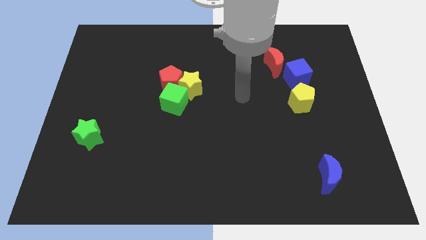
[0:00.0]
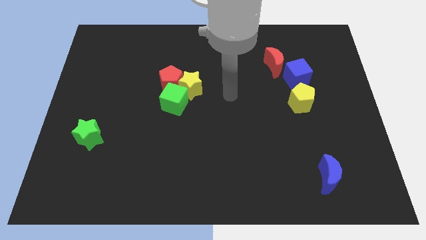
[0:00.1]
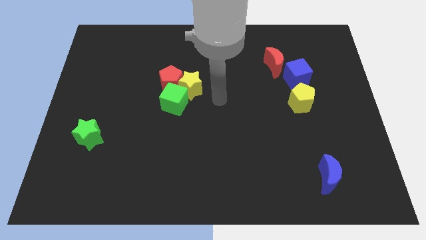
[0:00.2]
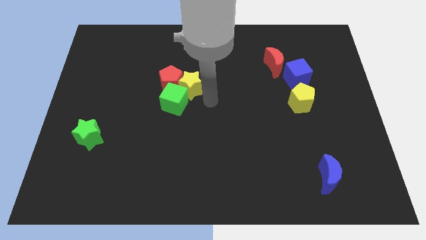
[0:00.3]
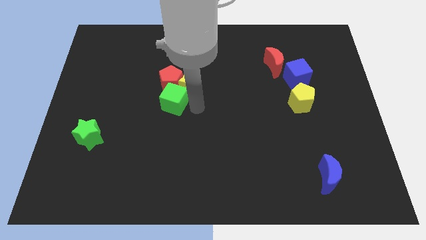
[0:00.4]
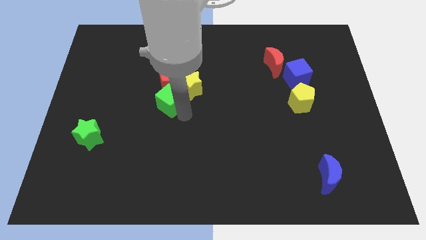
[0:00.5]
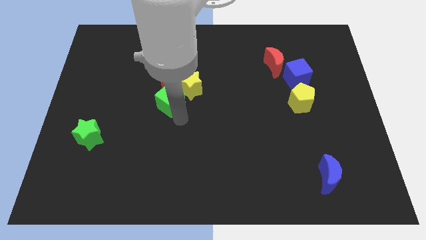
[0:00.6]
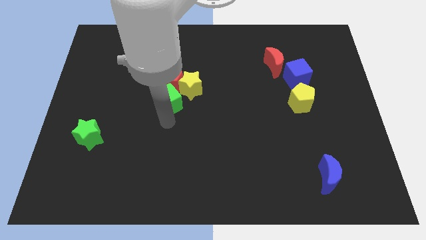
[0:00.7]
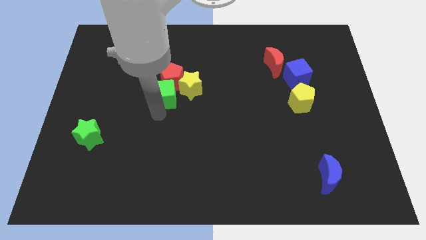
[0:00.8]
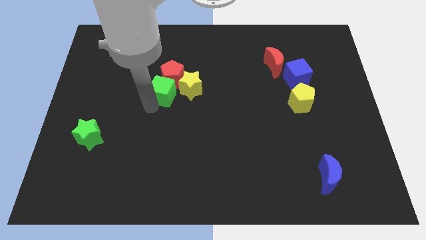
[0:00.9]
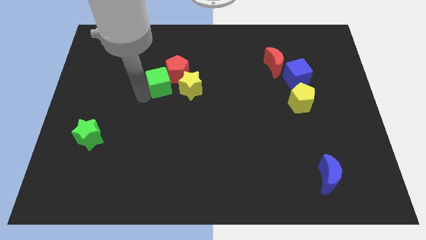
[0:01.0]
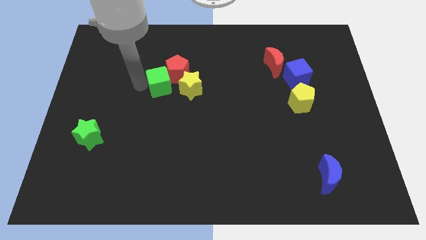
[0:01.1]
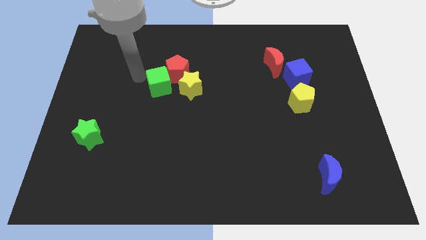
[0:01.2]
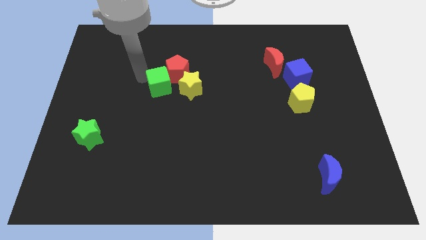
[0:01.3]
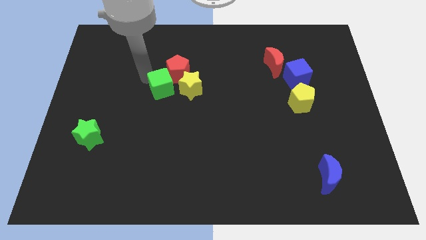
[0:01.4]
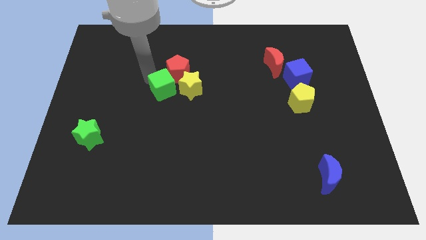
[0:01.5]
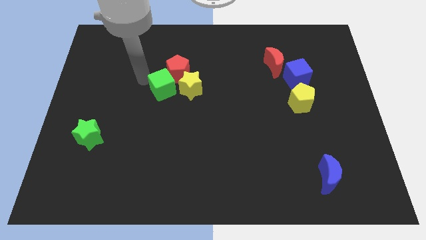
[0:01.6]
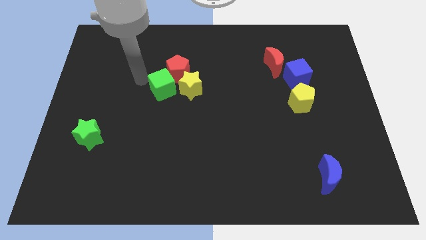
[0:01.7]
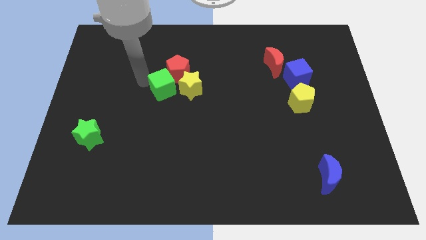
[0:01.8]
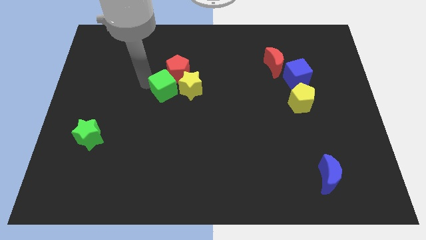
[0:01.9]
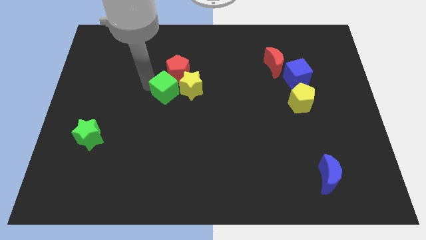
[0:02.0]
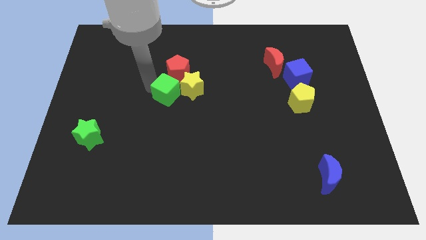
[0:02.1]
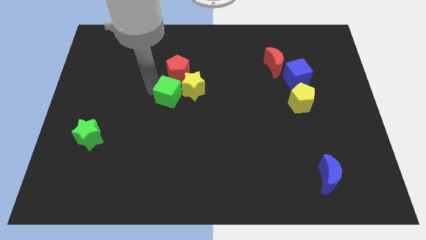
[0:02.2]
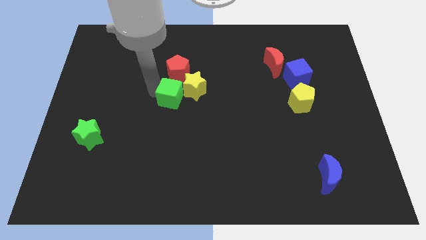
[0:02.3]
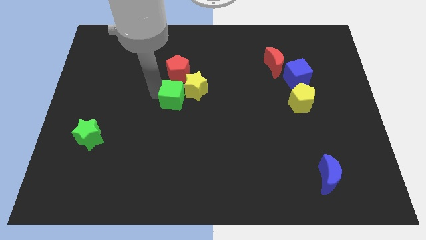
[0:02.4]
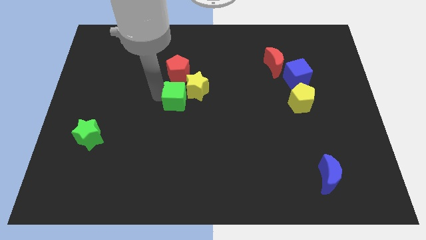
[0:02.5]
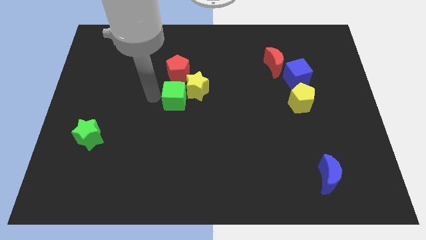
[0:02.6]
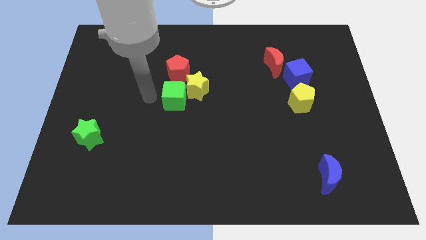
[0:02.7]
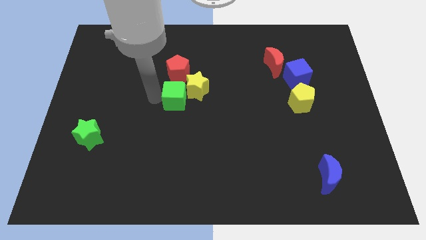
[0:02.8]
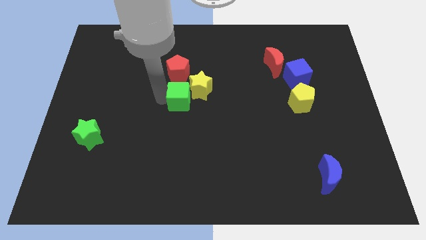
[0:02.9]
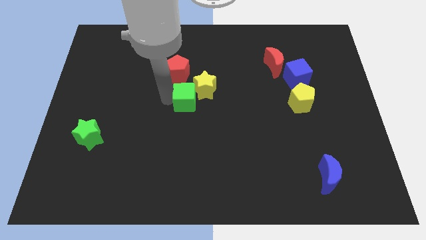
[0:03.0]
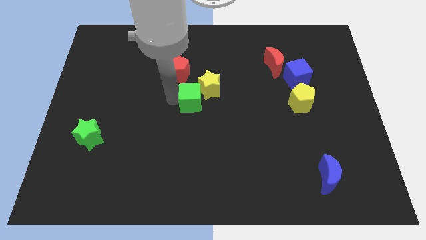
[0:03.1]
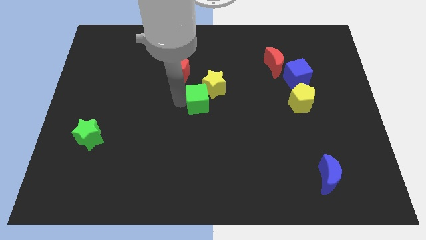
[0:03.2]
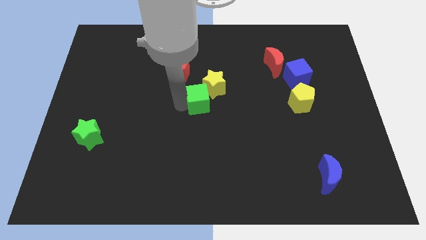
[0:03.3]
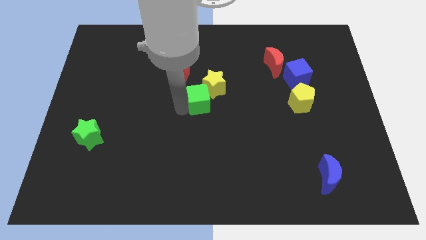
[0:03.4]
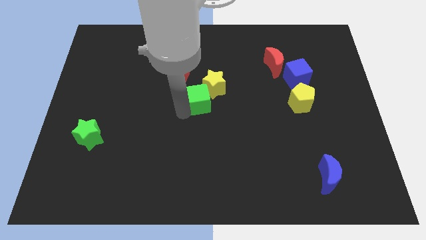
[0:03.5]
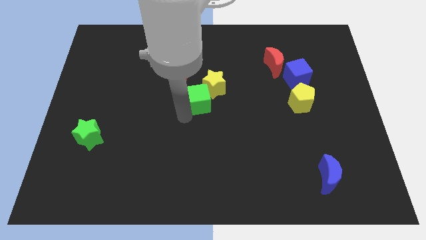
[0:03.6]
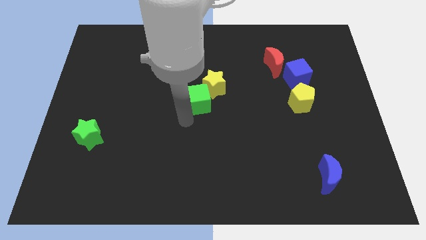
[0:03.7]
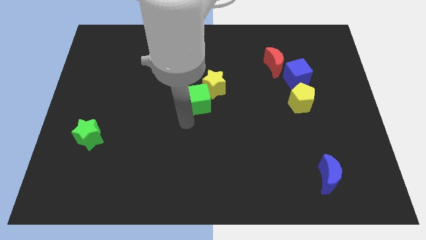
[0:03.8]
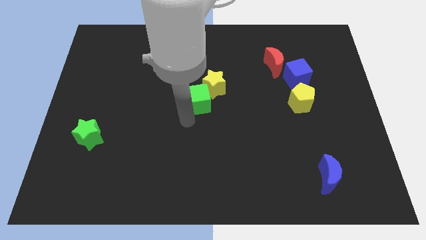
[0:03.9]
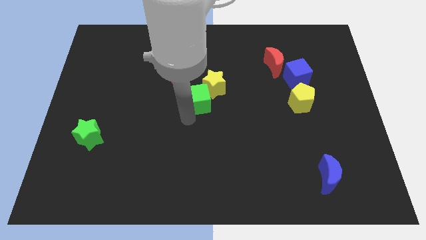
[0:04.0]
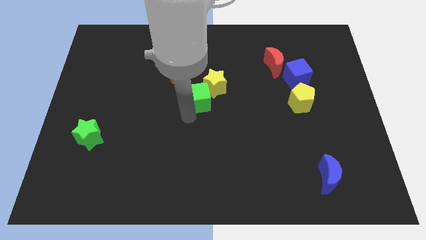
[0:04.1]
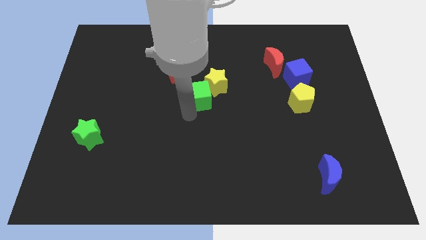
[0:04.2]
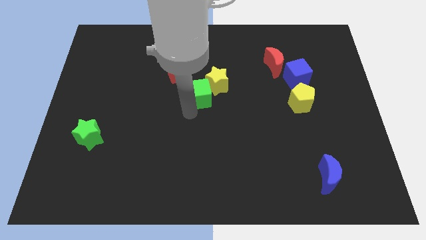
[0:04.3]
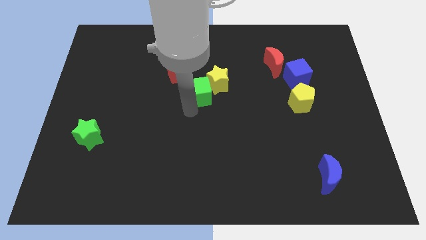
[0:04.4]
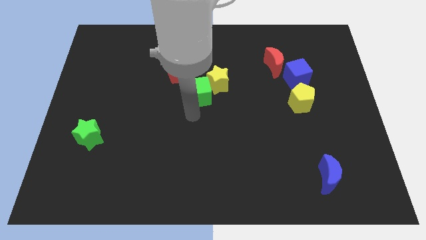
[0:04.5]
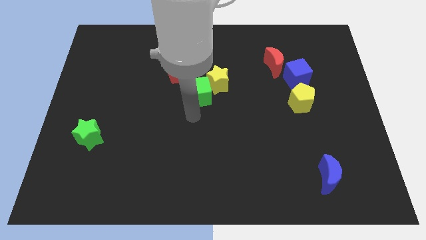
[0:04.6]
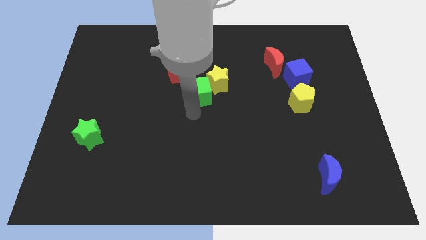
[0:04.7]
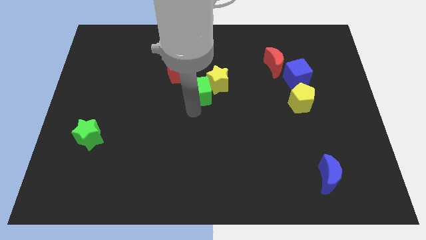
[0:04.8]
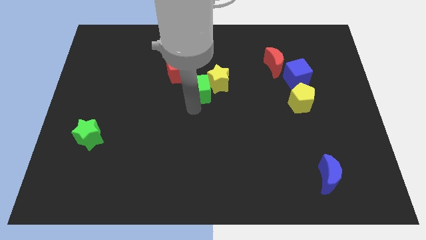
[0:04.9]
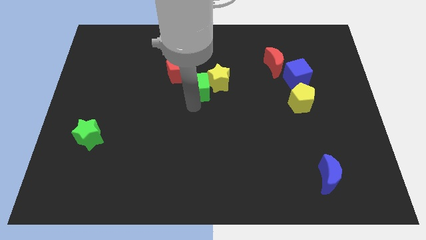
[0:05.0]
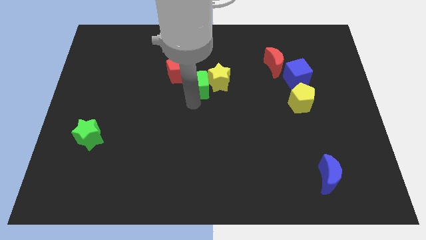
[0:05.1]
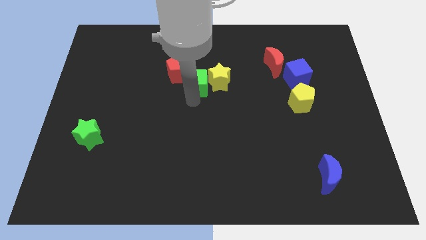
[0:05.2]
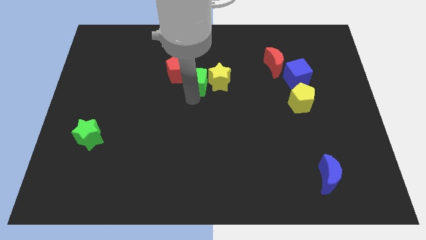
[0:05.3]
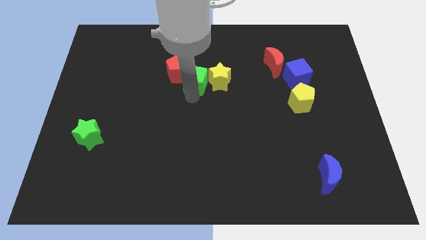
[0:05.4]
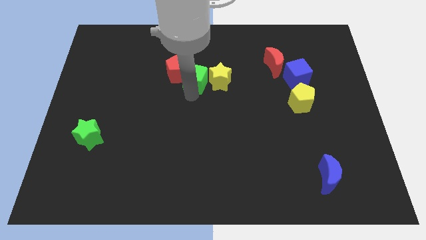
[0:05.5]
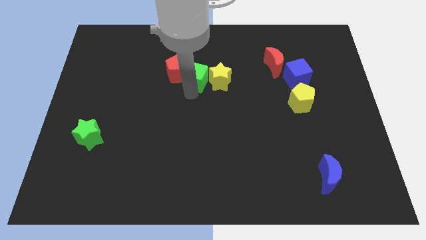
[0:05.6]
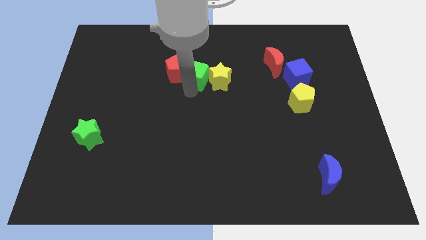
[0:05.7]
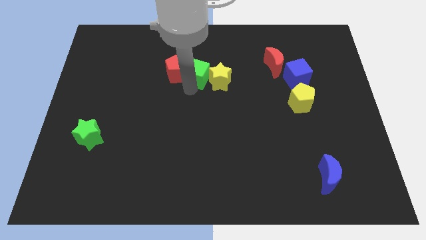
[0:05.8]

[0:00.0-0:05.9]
move the green cube to the top right side of the red pentagon

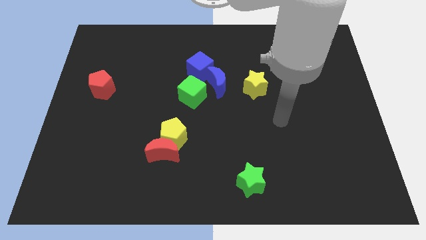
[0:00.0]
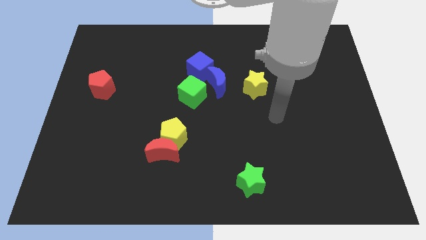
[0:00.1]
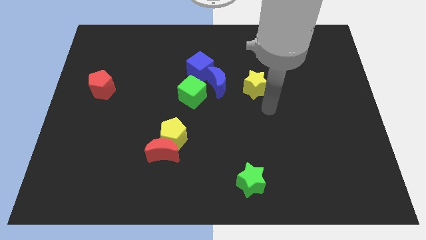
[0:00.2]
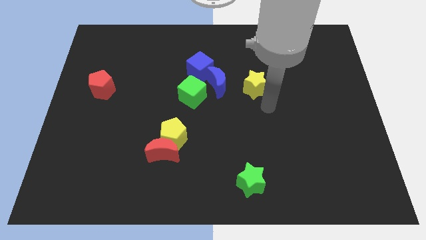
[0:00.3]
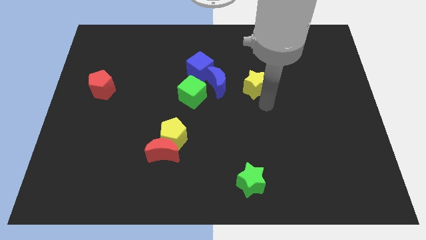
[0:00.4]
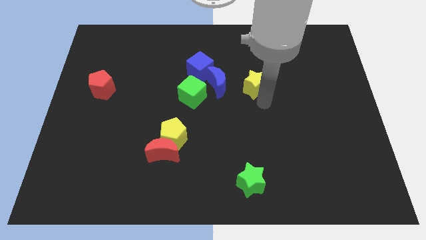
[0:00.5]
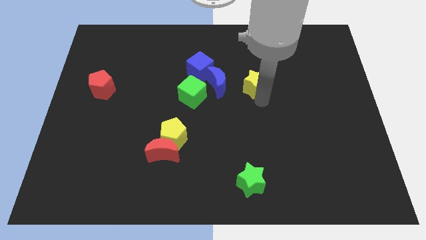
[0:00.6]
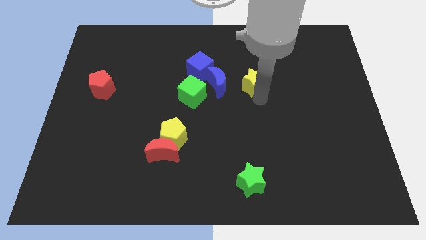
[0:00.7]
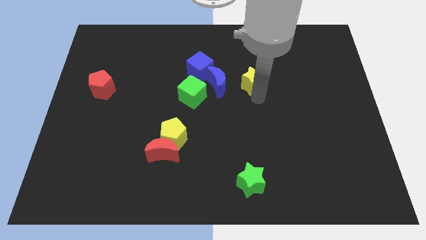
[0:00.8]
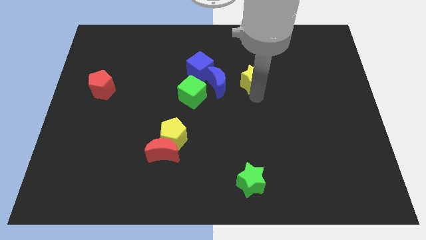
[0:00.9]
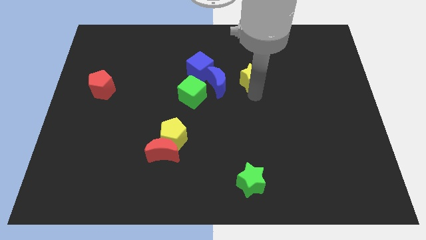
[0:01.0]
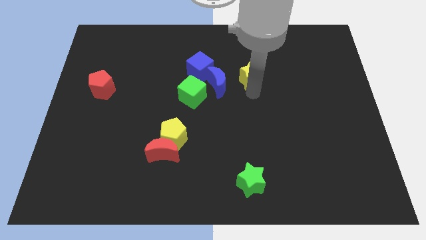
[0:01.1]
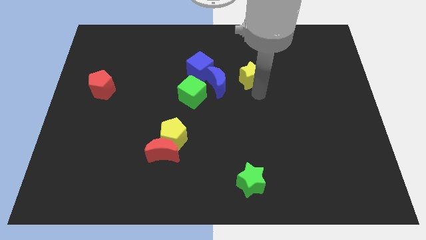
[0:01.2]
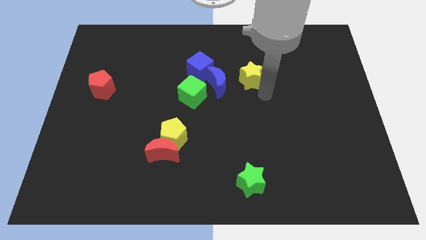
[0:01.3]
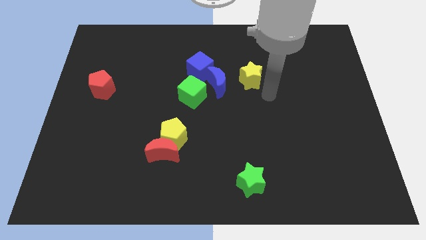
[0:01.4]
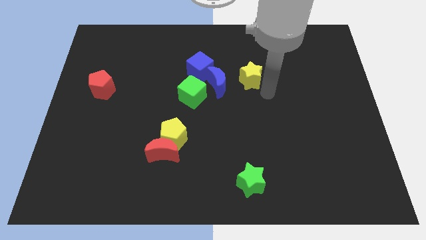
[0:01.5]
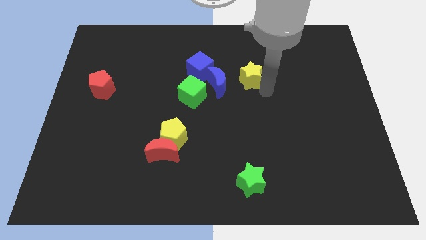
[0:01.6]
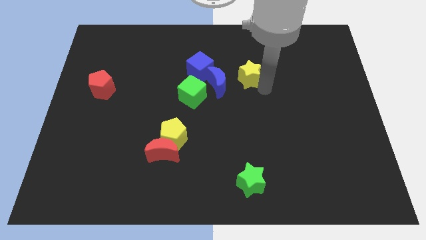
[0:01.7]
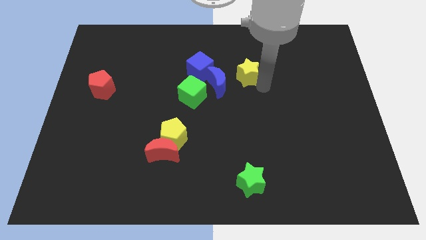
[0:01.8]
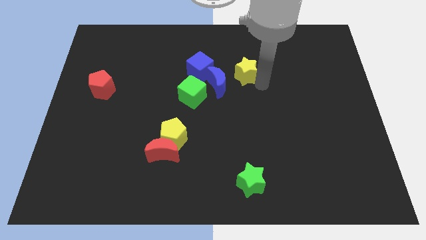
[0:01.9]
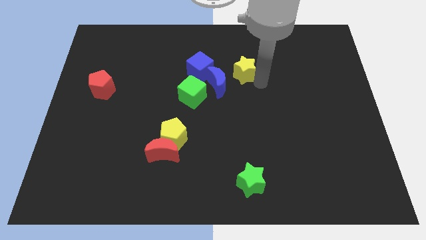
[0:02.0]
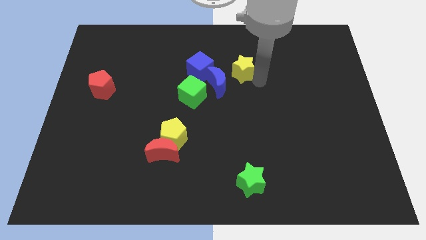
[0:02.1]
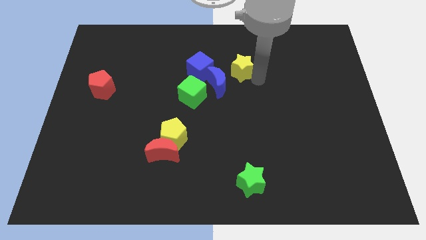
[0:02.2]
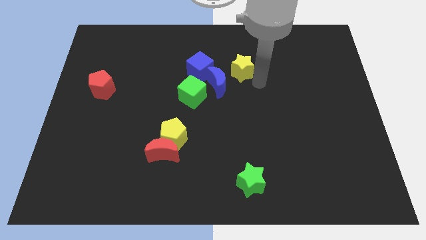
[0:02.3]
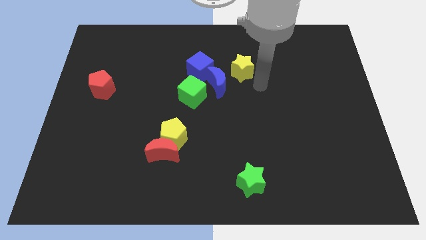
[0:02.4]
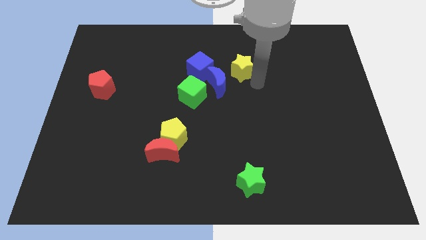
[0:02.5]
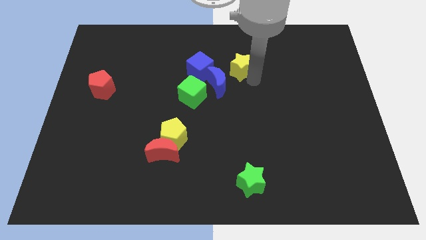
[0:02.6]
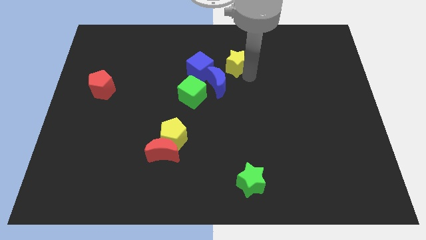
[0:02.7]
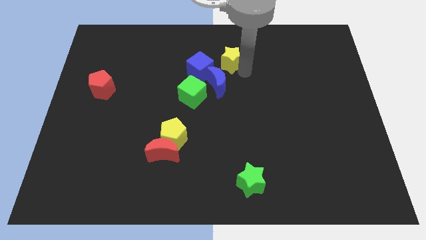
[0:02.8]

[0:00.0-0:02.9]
slide the yellow star diagonally up and to the right of the blue cube
